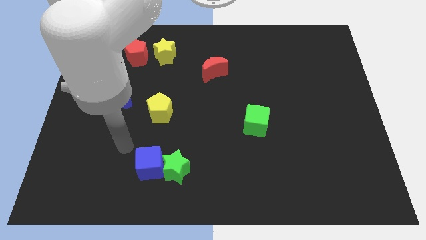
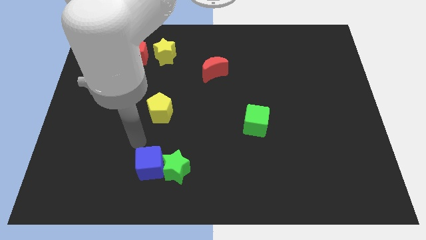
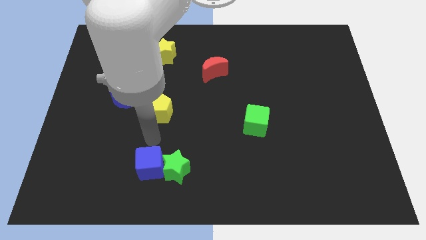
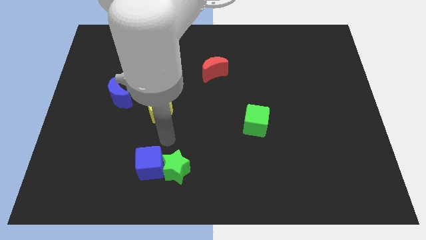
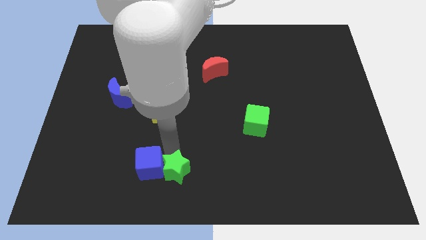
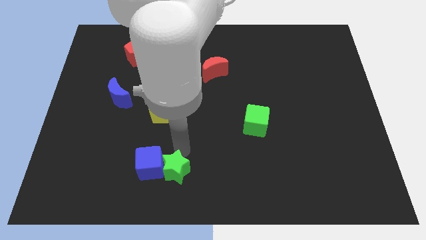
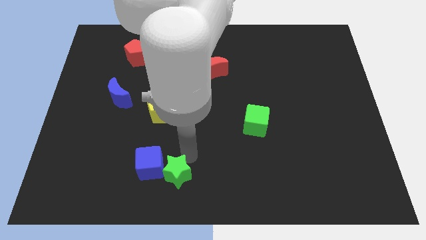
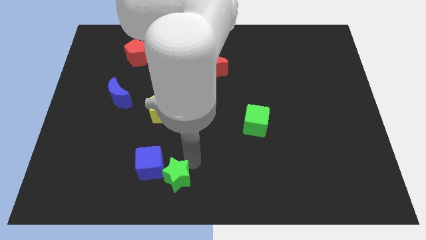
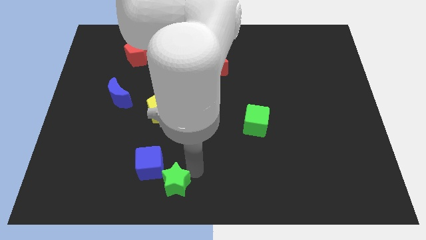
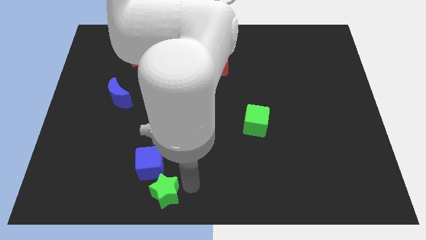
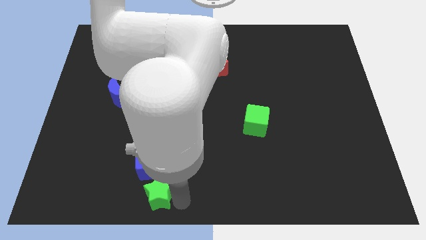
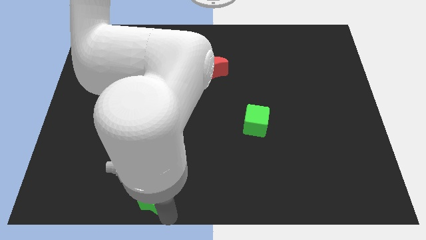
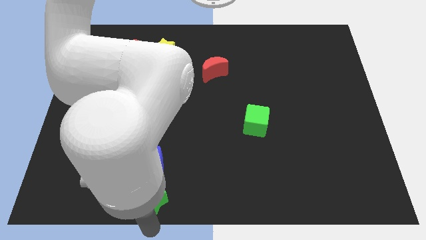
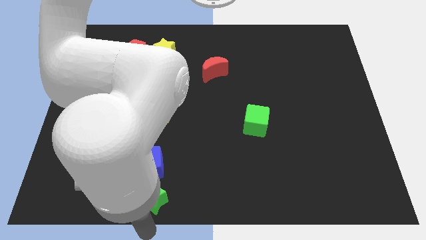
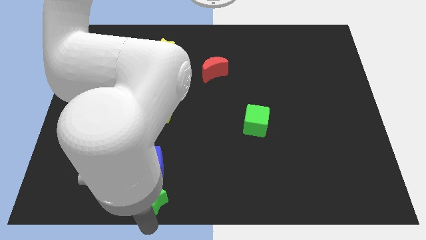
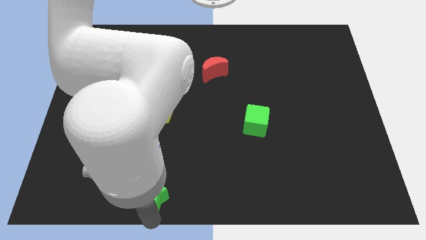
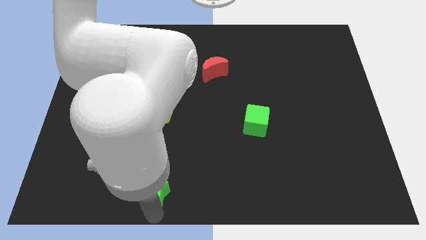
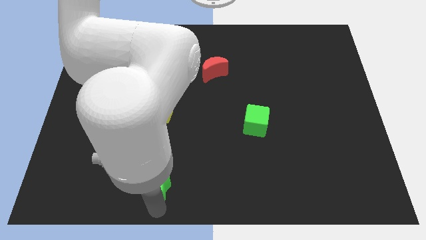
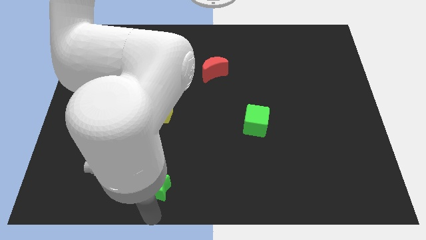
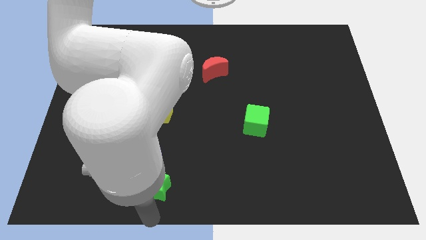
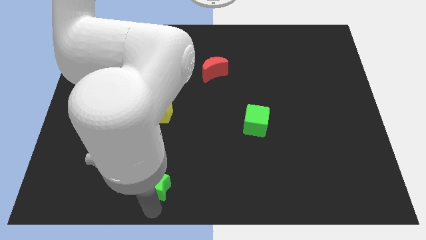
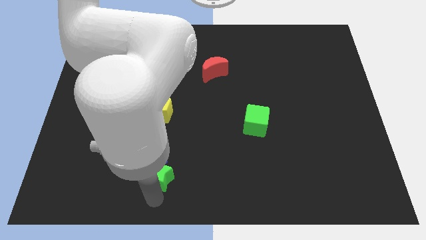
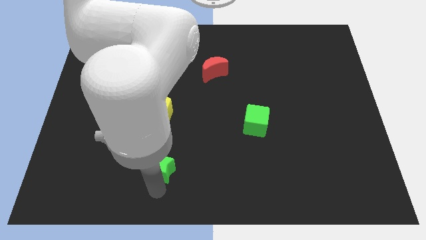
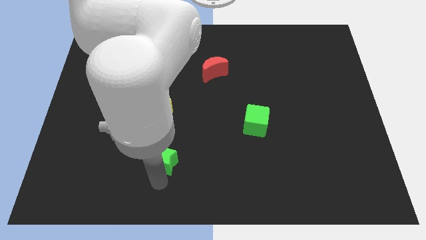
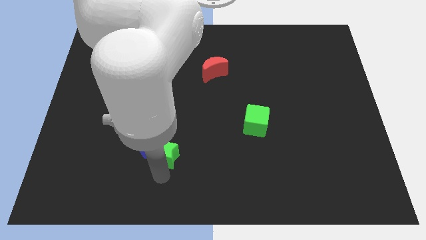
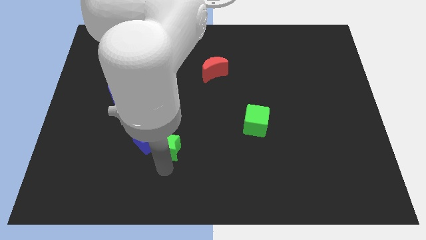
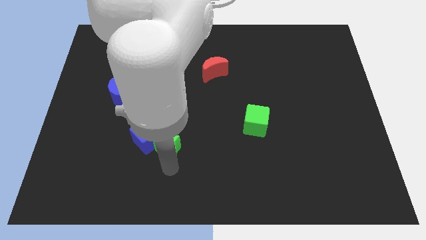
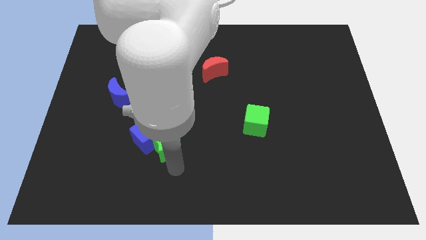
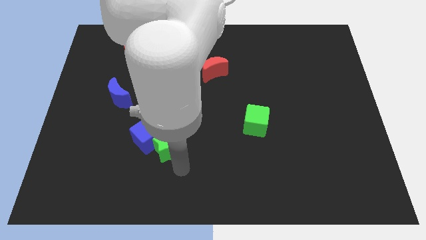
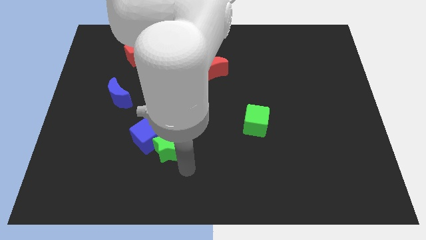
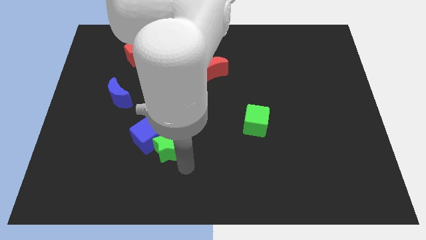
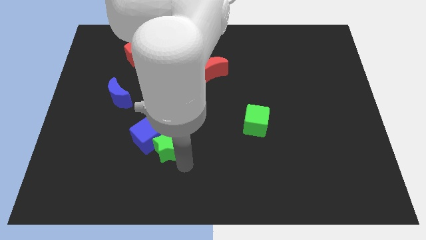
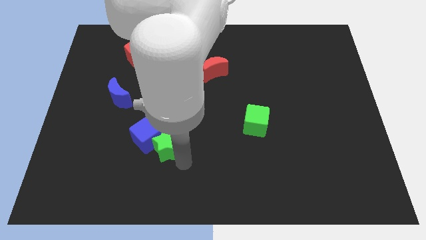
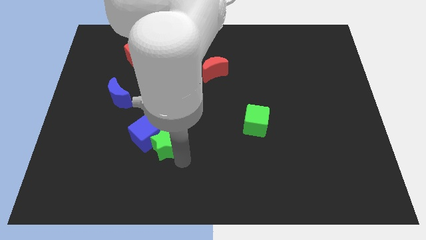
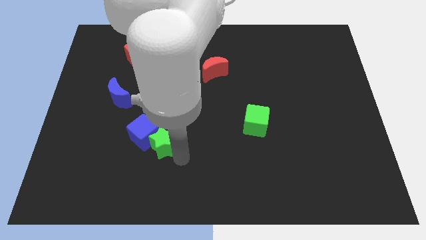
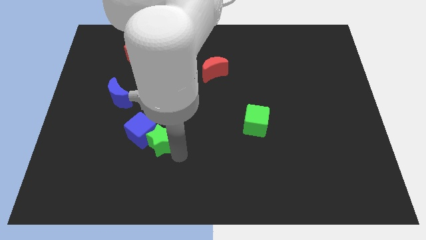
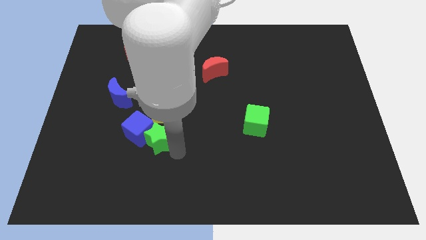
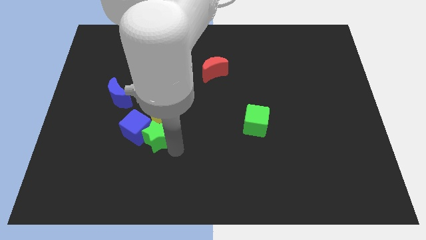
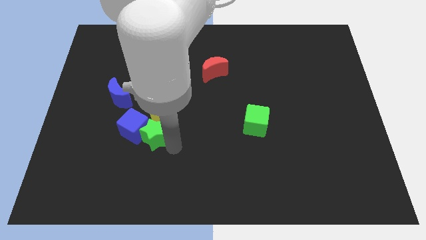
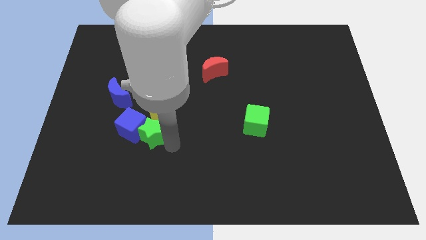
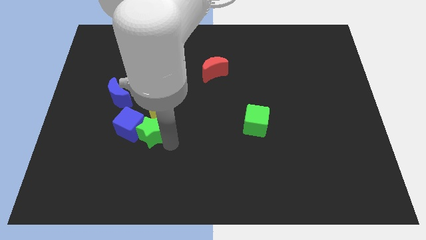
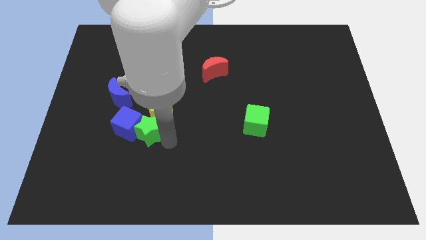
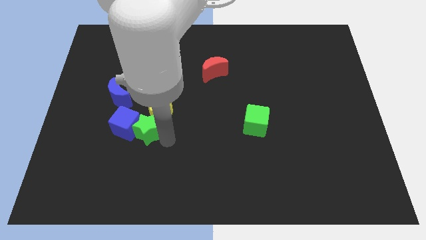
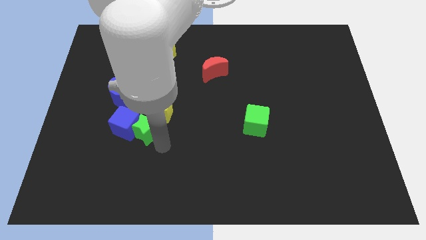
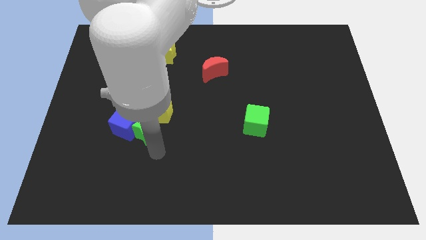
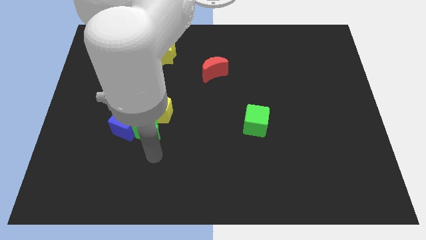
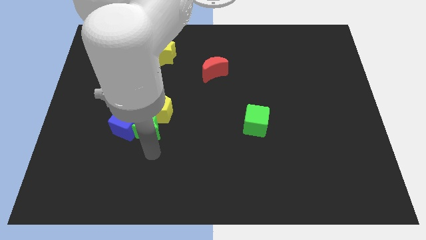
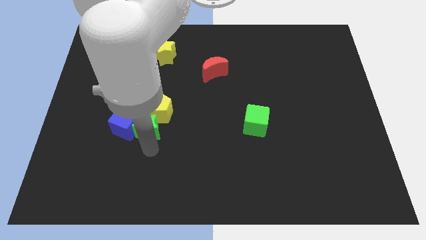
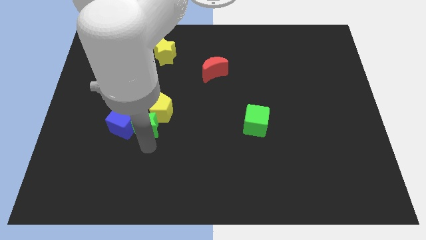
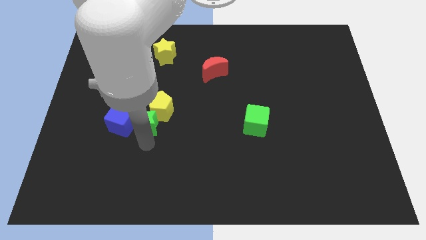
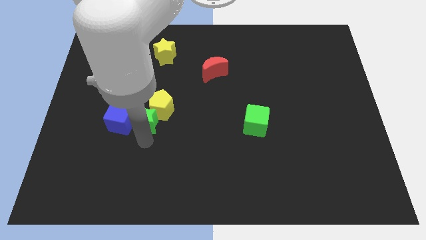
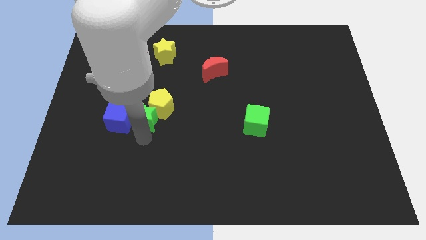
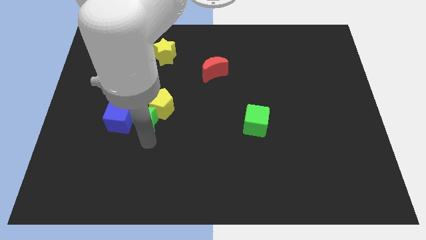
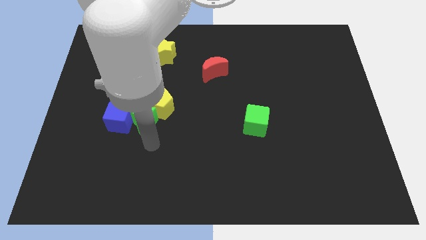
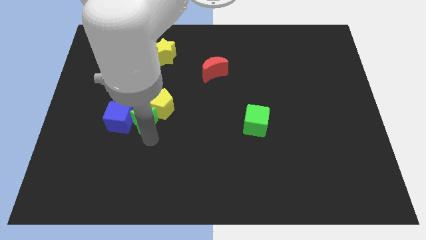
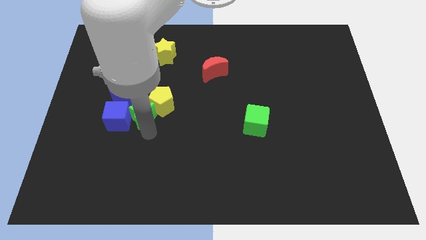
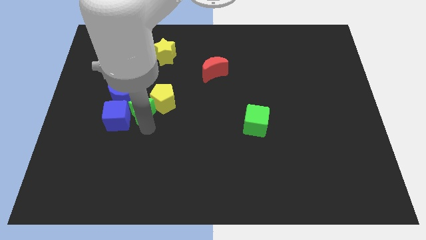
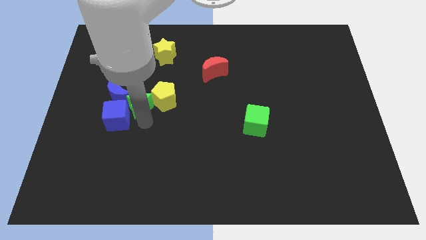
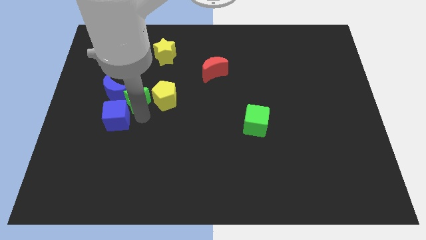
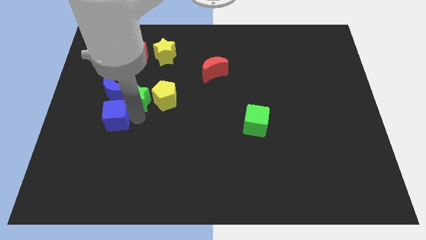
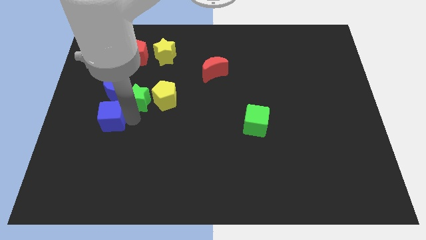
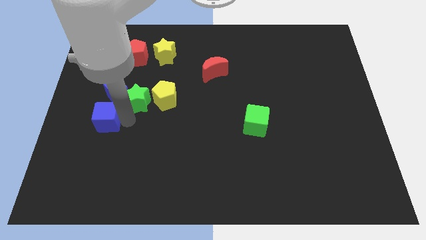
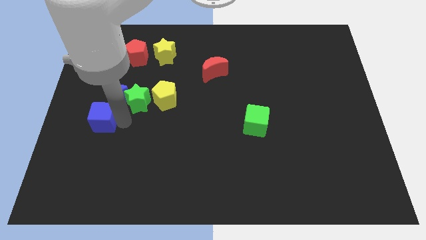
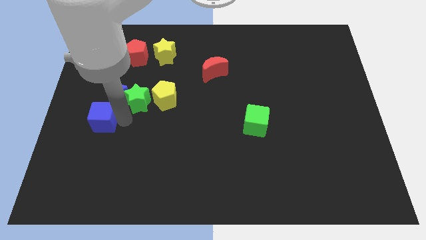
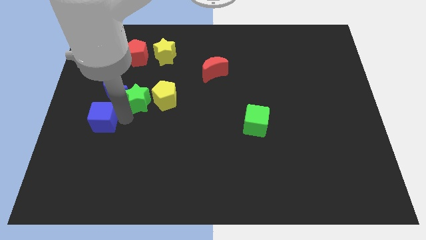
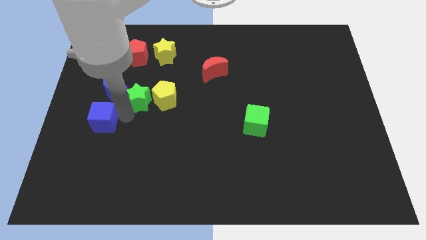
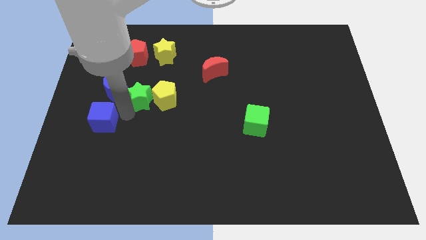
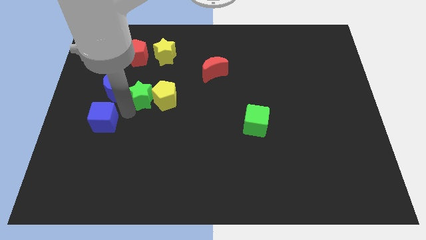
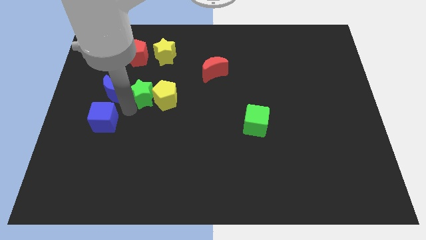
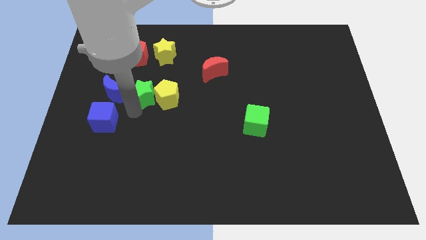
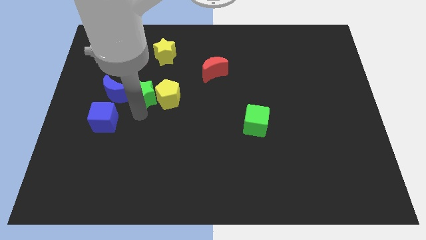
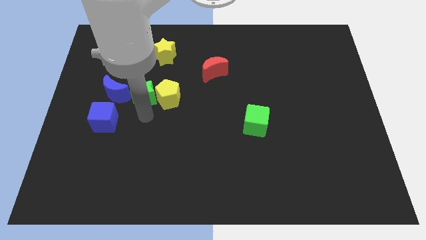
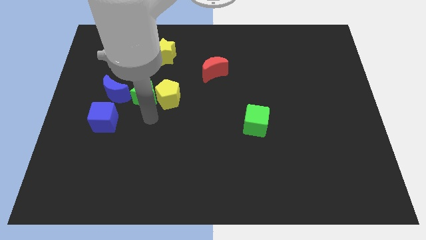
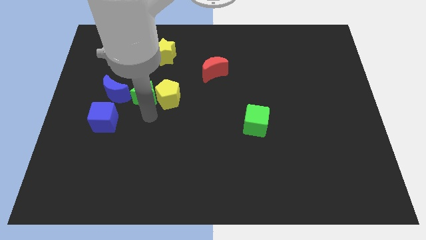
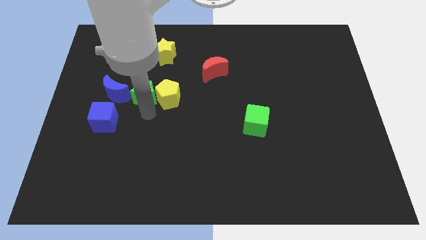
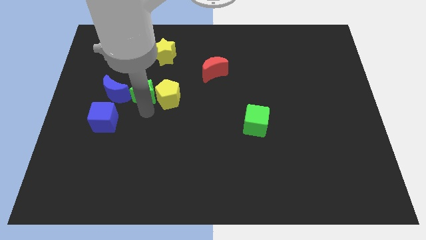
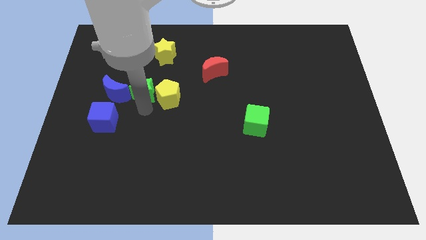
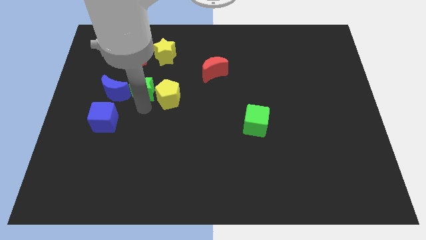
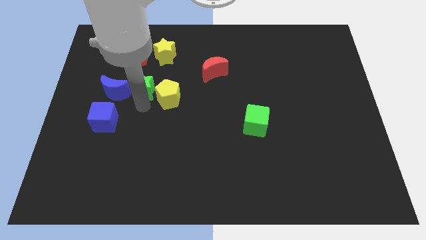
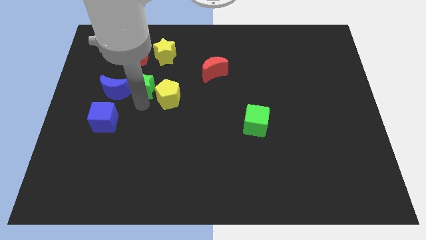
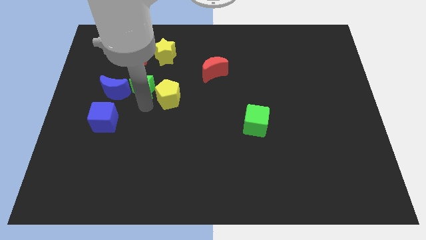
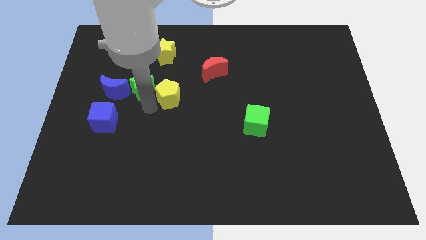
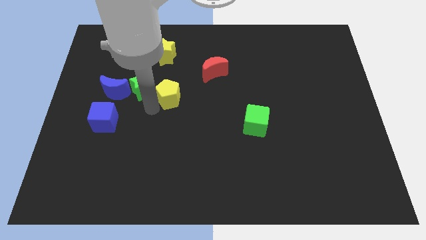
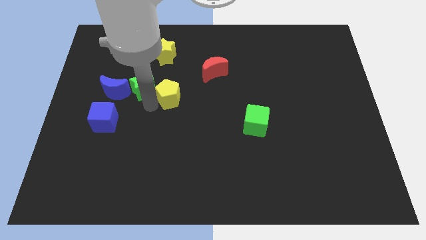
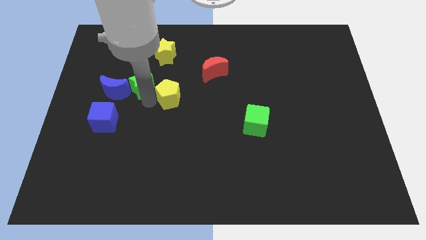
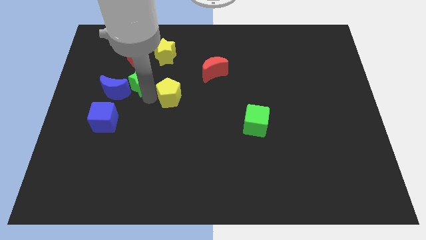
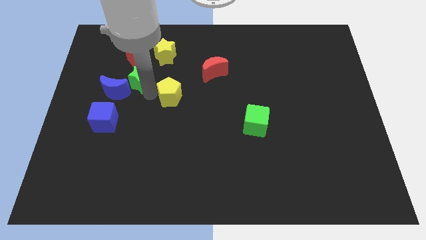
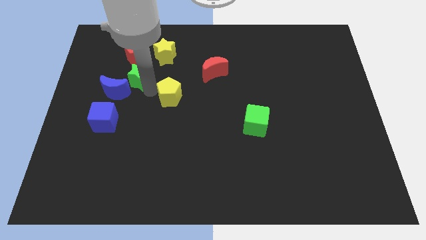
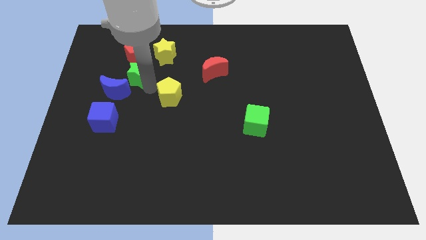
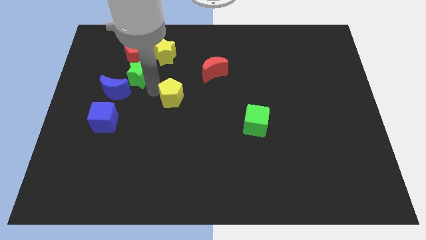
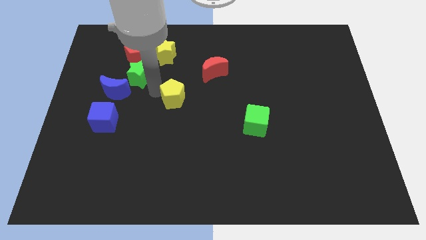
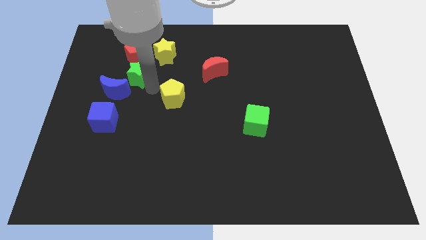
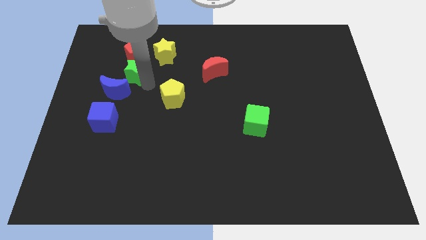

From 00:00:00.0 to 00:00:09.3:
put the green star to the top of the blue moon
